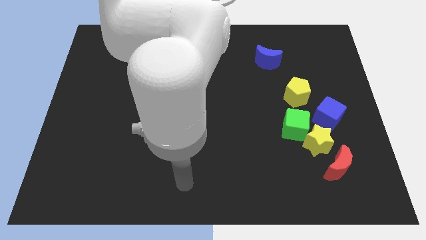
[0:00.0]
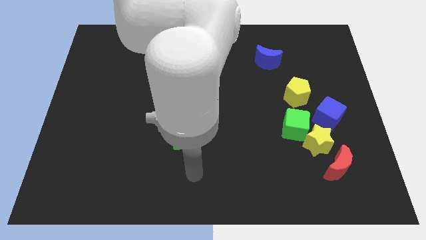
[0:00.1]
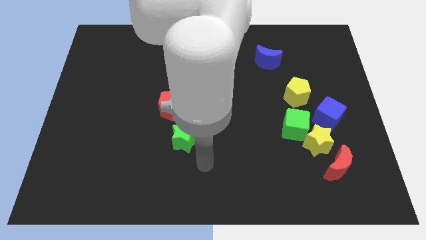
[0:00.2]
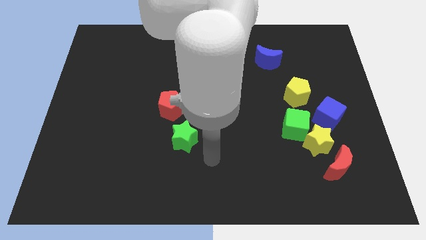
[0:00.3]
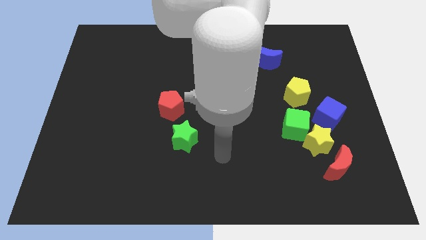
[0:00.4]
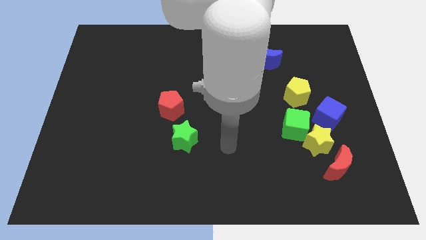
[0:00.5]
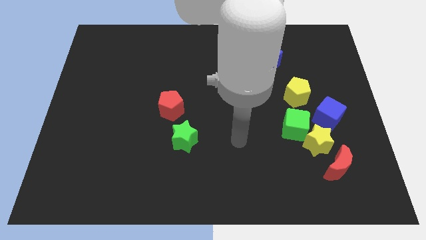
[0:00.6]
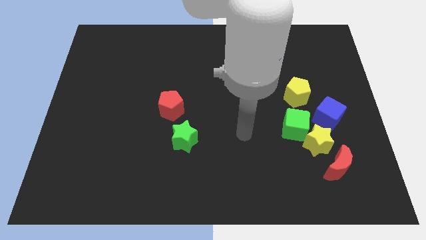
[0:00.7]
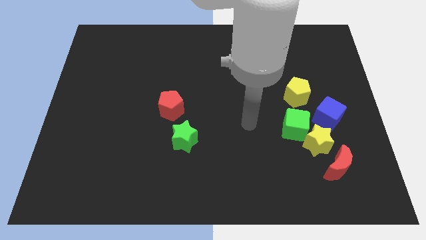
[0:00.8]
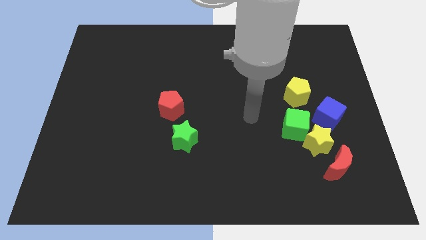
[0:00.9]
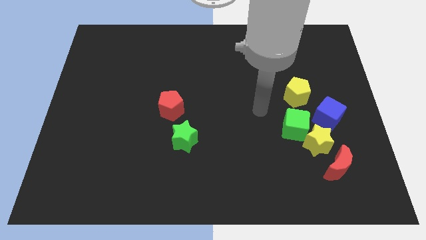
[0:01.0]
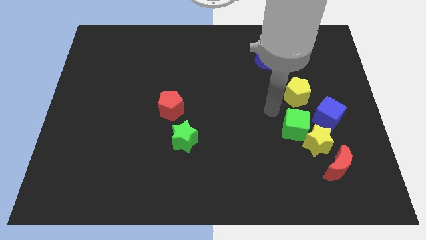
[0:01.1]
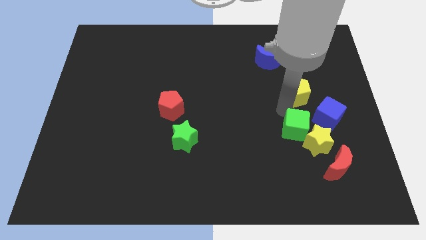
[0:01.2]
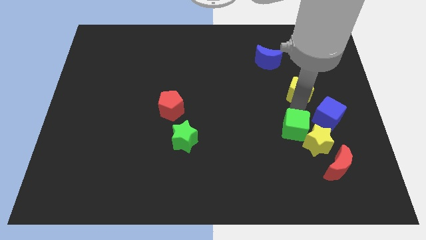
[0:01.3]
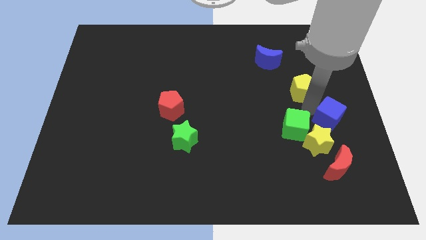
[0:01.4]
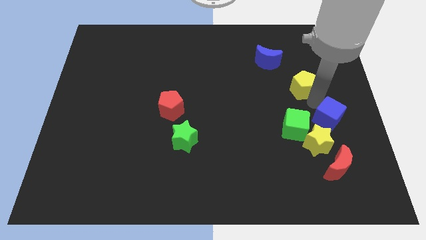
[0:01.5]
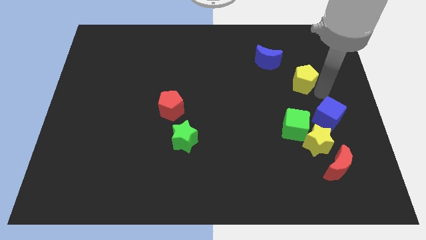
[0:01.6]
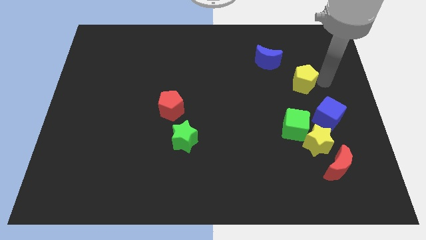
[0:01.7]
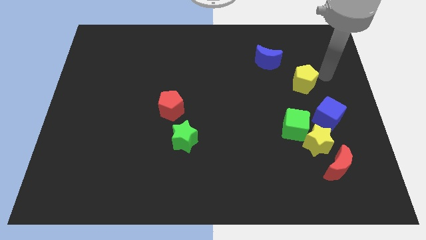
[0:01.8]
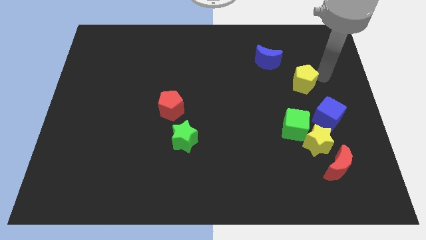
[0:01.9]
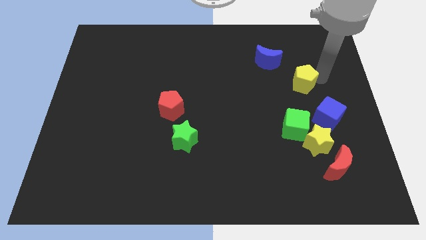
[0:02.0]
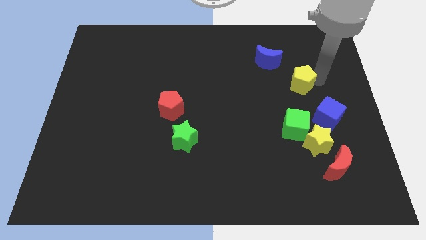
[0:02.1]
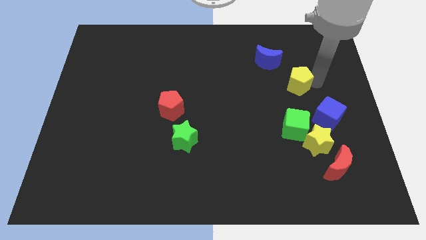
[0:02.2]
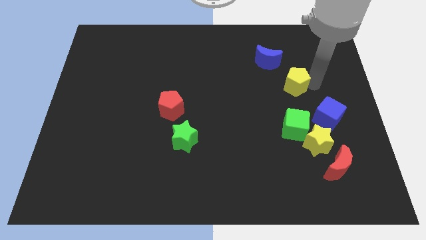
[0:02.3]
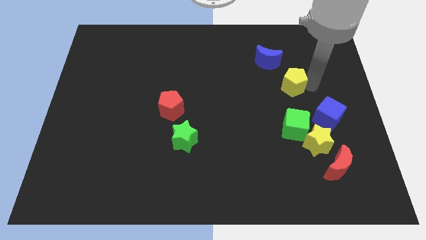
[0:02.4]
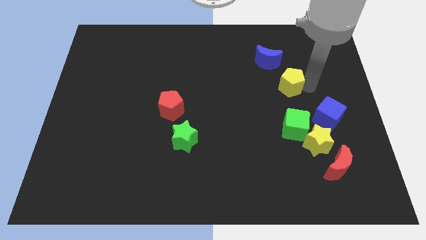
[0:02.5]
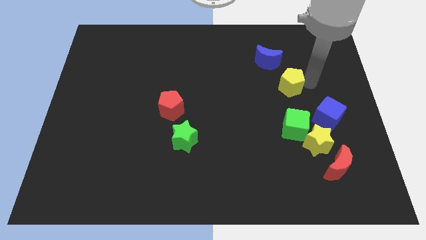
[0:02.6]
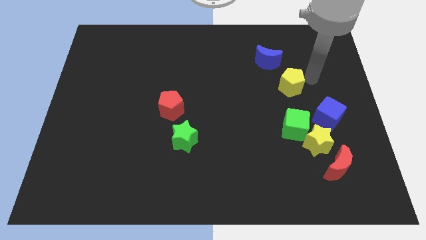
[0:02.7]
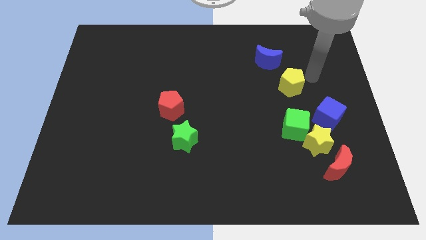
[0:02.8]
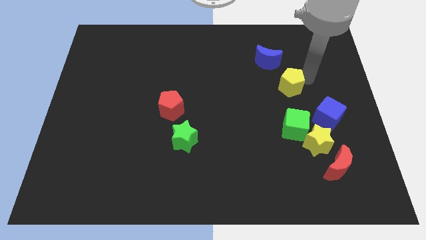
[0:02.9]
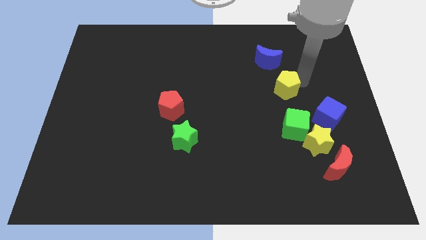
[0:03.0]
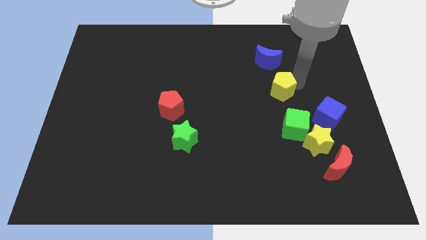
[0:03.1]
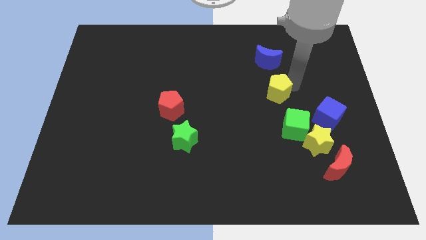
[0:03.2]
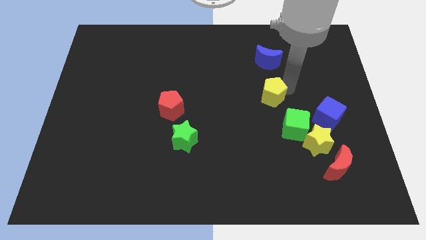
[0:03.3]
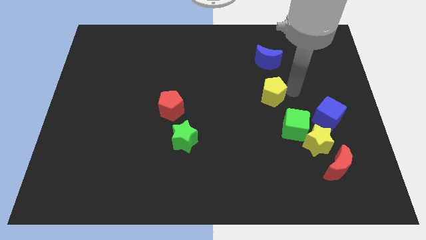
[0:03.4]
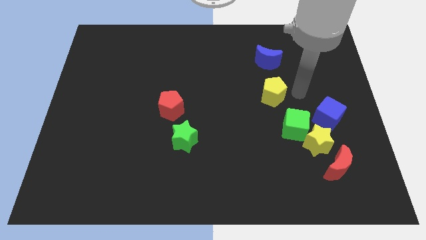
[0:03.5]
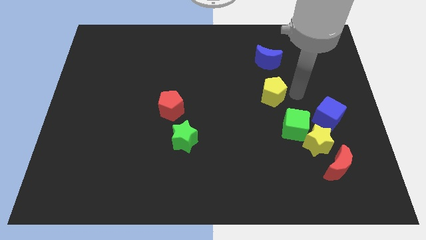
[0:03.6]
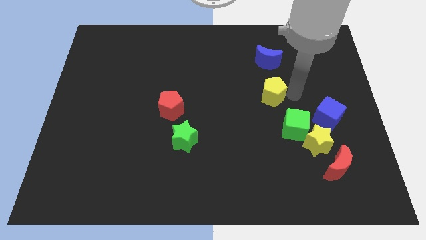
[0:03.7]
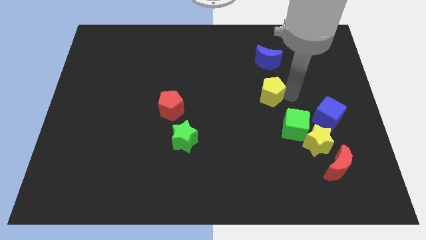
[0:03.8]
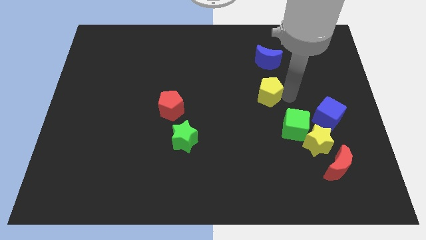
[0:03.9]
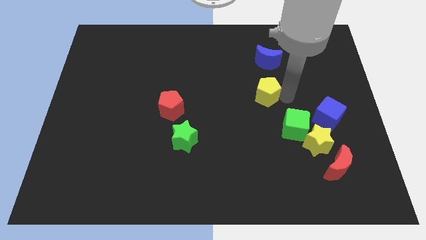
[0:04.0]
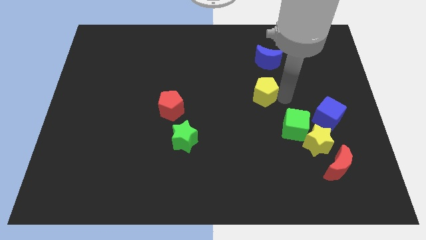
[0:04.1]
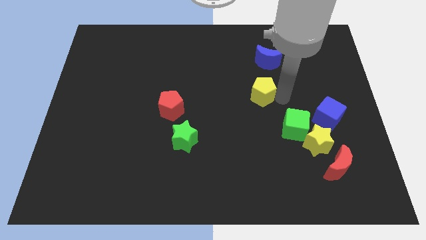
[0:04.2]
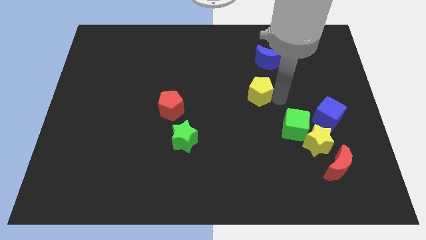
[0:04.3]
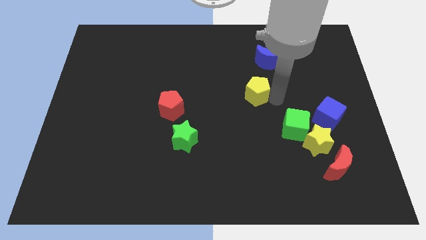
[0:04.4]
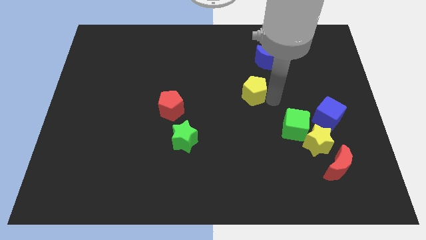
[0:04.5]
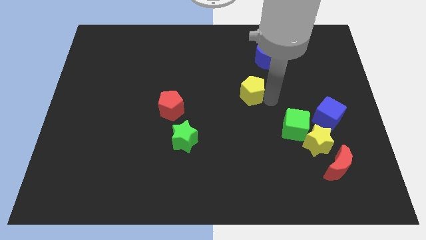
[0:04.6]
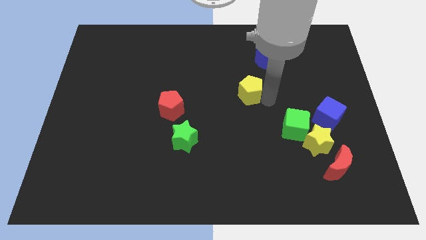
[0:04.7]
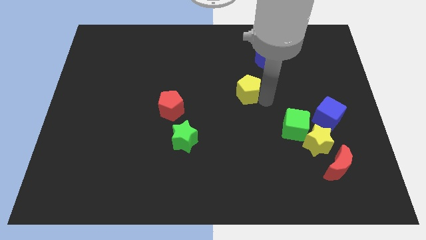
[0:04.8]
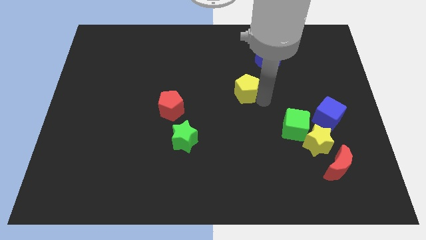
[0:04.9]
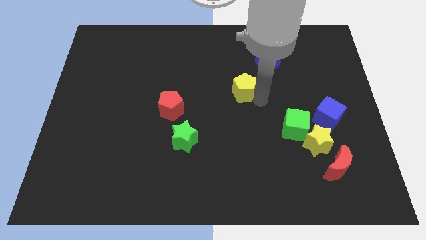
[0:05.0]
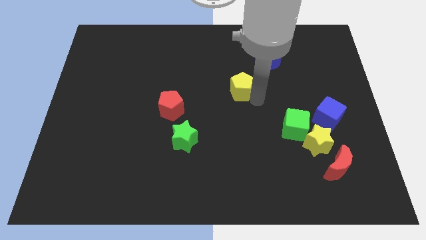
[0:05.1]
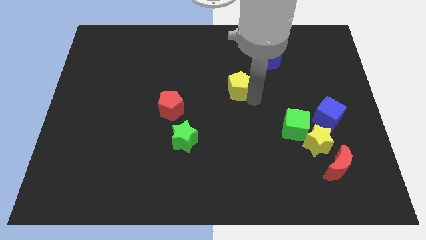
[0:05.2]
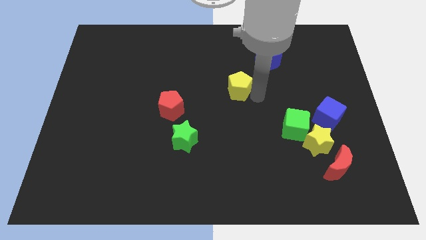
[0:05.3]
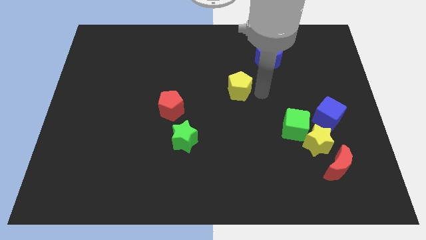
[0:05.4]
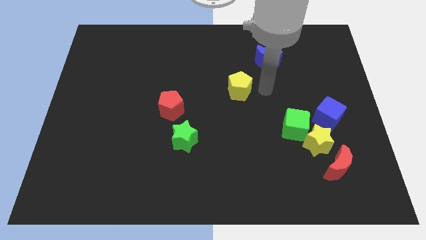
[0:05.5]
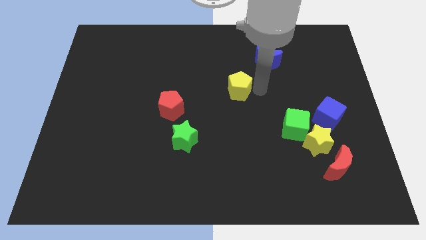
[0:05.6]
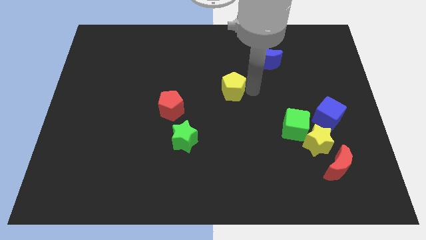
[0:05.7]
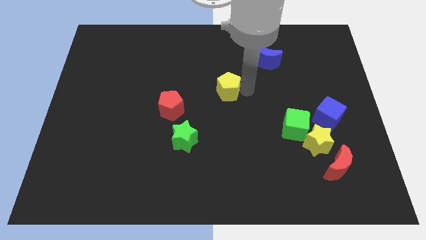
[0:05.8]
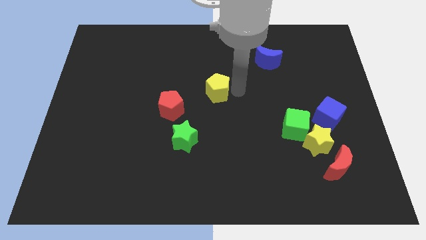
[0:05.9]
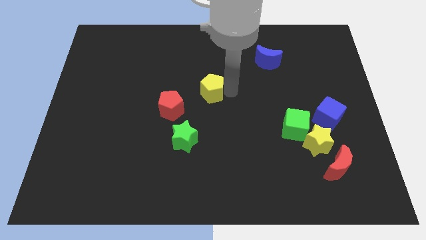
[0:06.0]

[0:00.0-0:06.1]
put the yellow pentagon diagonally up and to the right of the red pentagon

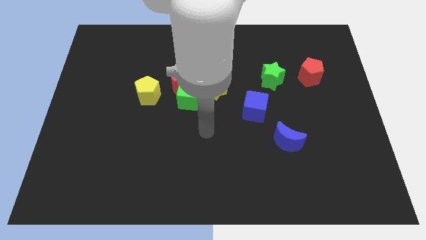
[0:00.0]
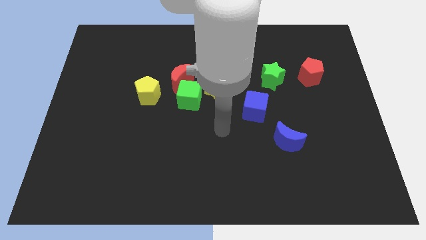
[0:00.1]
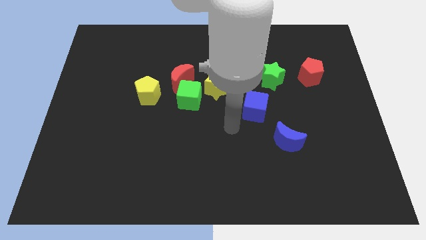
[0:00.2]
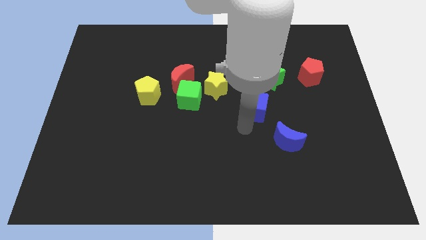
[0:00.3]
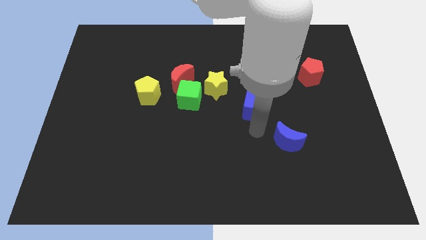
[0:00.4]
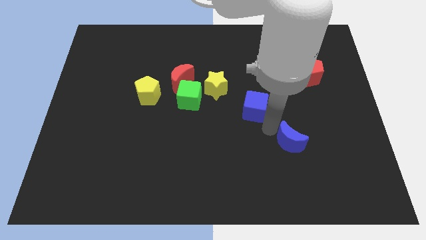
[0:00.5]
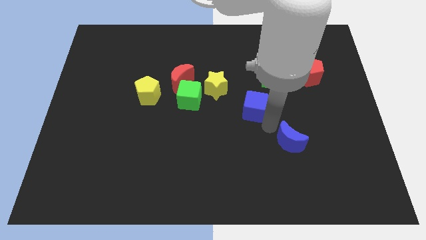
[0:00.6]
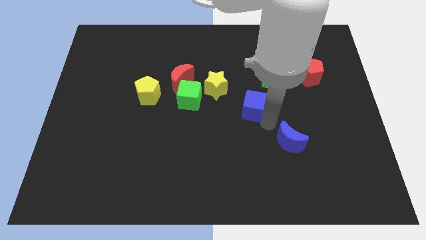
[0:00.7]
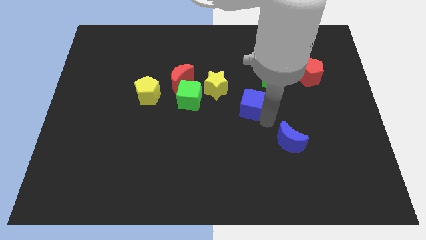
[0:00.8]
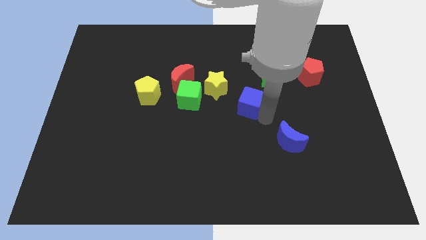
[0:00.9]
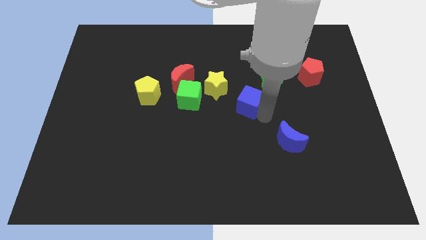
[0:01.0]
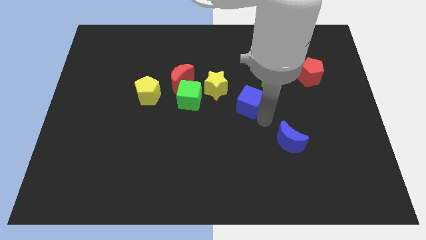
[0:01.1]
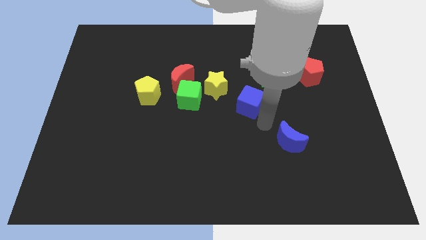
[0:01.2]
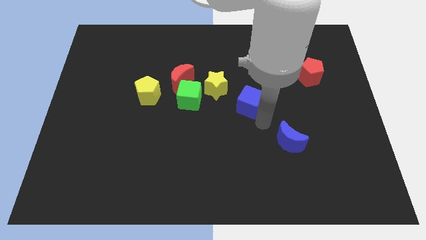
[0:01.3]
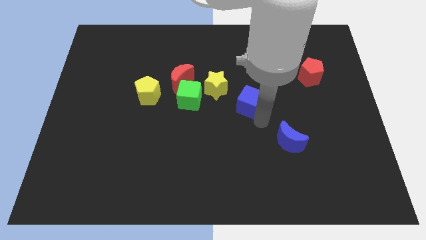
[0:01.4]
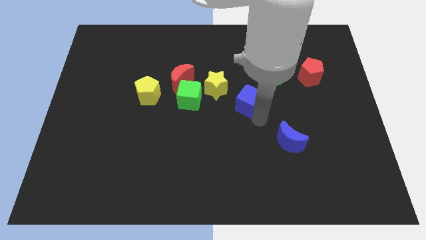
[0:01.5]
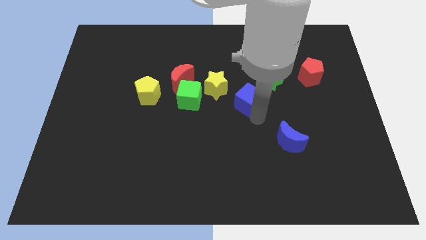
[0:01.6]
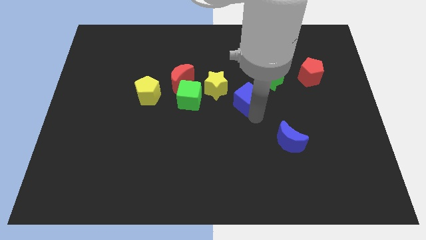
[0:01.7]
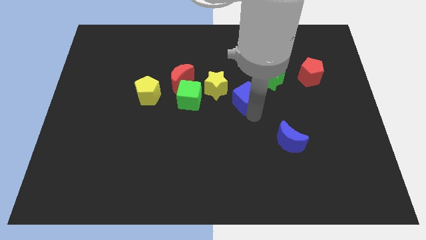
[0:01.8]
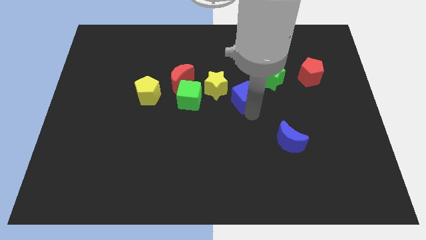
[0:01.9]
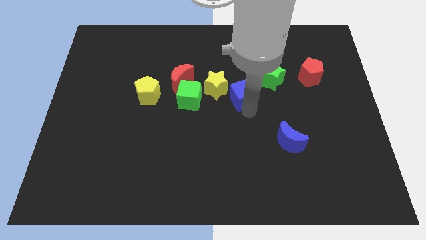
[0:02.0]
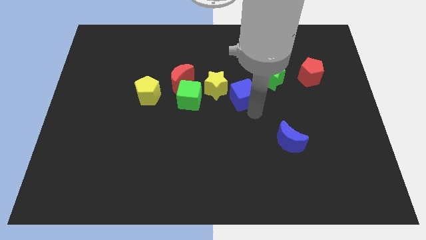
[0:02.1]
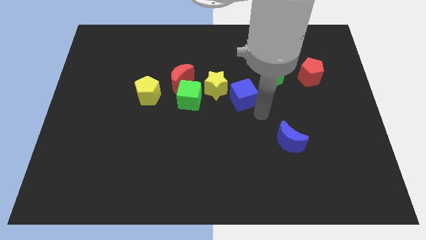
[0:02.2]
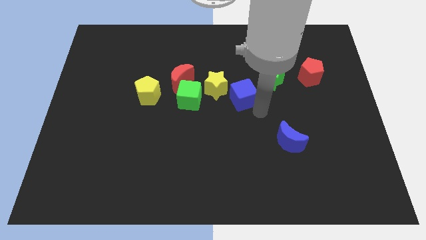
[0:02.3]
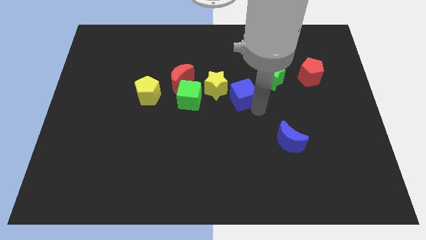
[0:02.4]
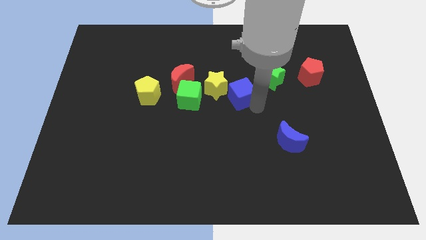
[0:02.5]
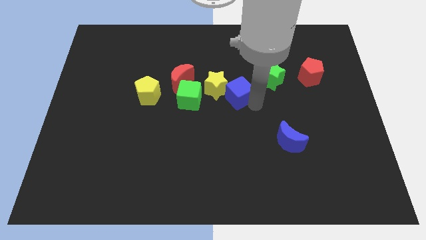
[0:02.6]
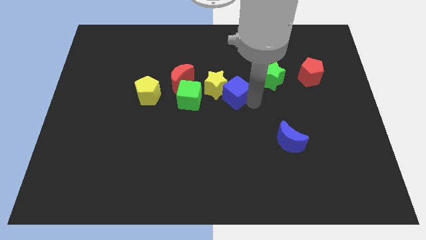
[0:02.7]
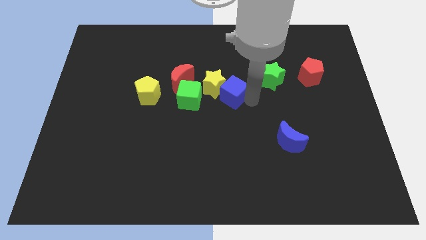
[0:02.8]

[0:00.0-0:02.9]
slide the blue cube to the right side of the red moon
